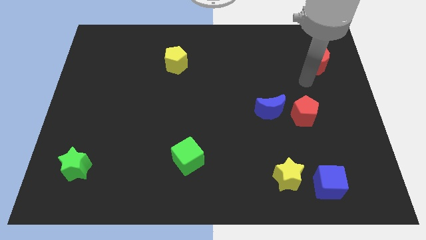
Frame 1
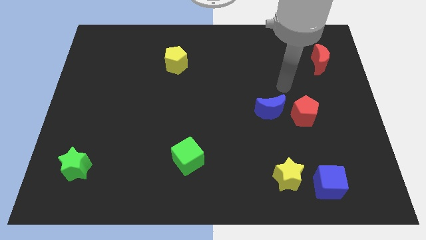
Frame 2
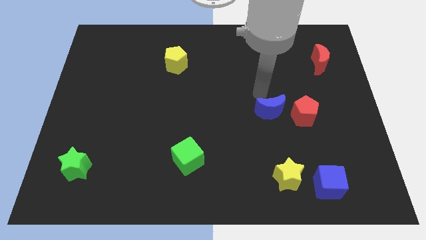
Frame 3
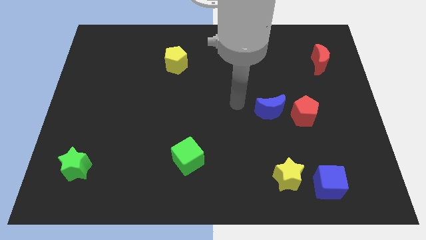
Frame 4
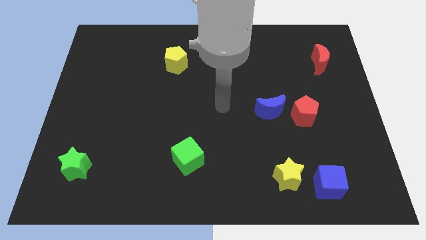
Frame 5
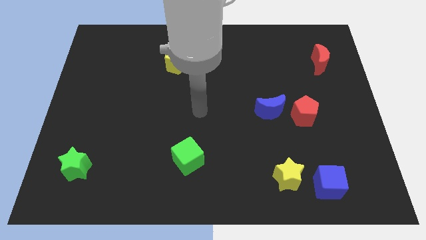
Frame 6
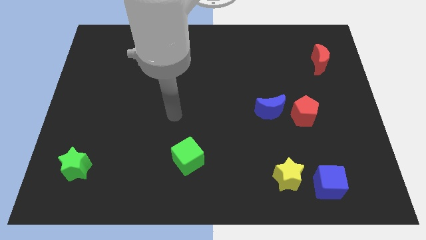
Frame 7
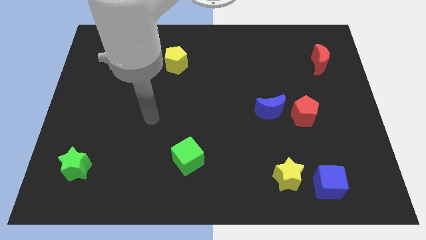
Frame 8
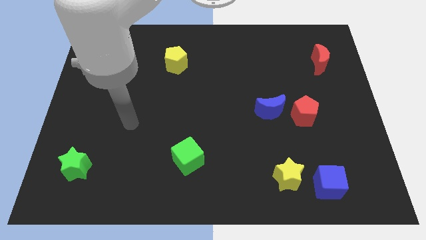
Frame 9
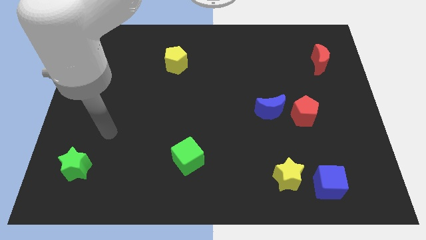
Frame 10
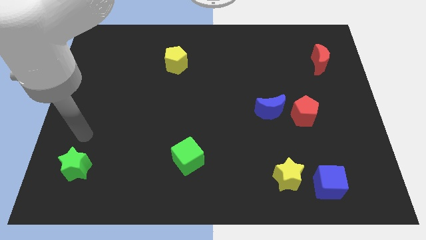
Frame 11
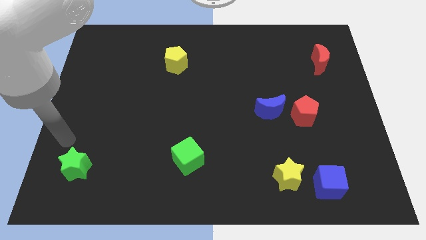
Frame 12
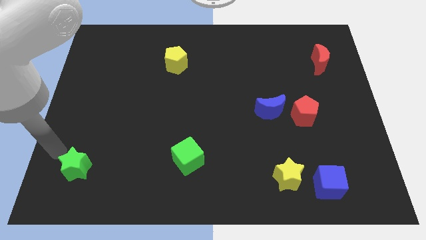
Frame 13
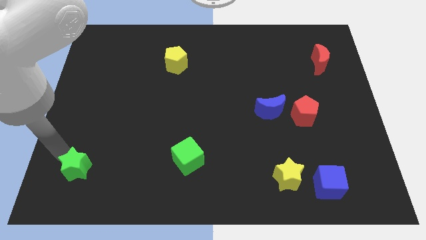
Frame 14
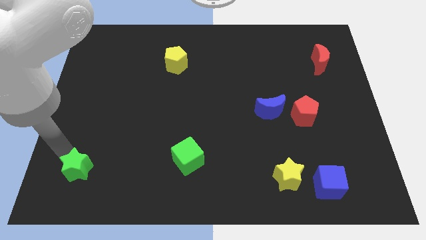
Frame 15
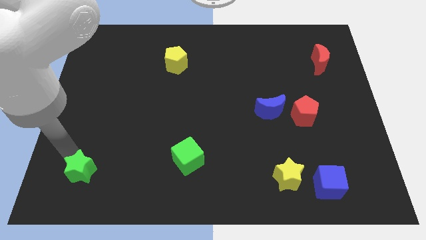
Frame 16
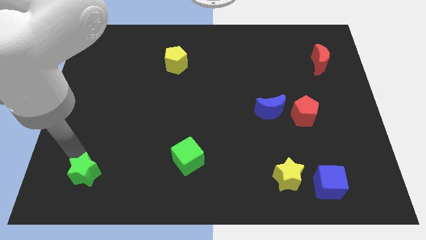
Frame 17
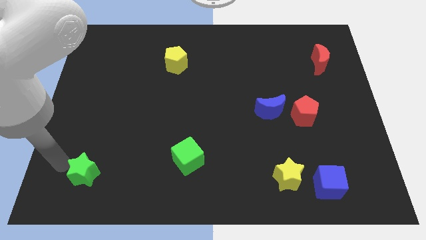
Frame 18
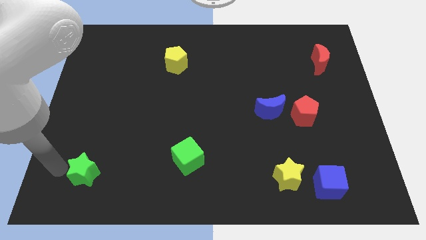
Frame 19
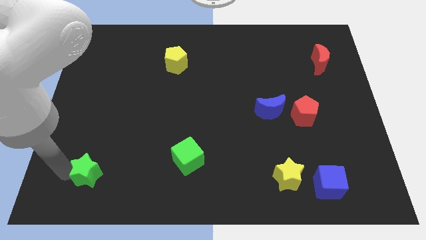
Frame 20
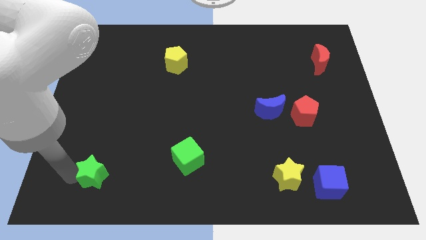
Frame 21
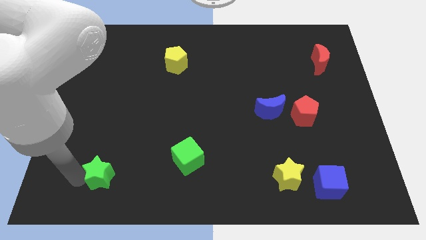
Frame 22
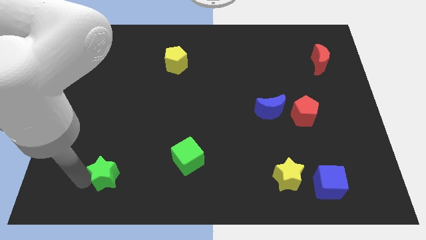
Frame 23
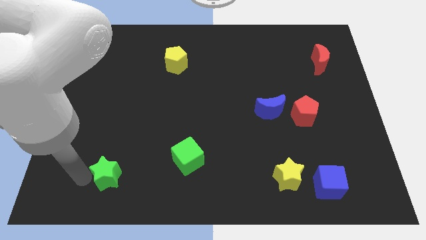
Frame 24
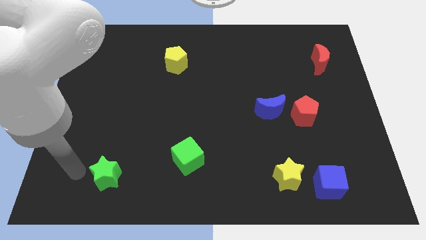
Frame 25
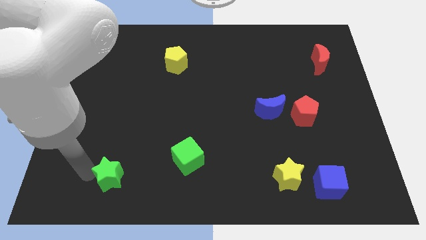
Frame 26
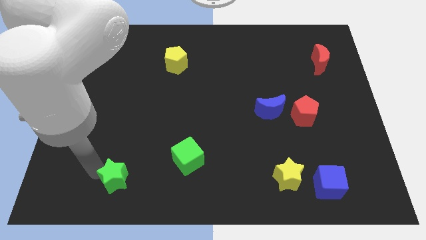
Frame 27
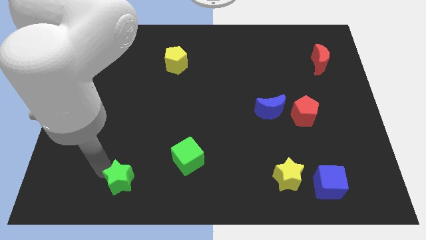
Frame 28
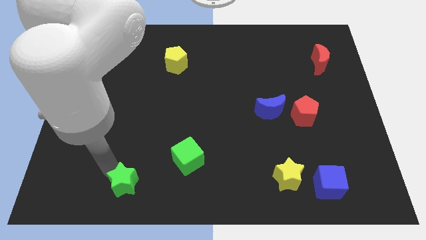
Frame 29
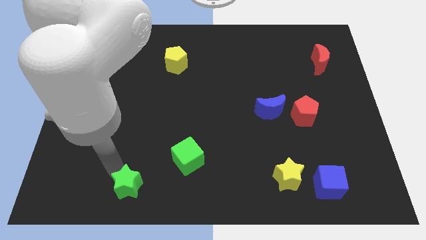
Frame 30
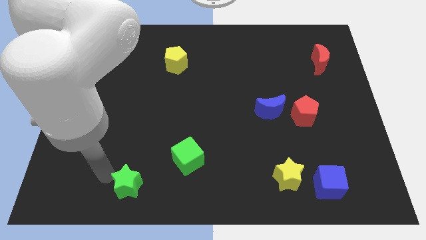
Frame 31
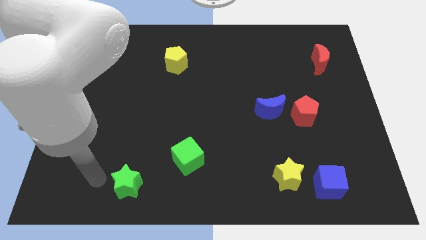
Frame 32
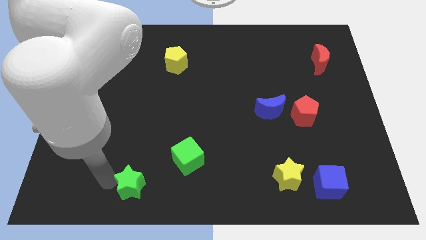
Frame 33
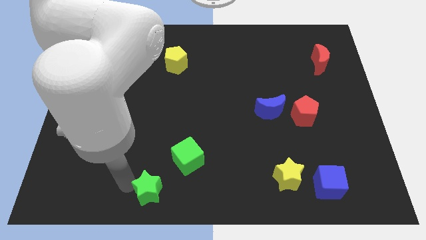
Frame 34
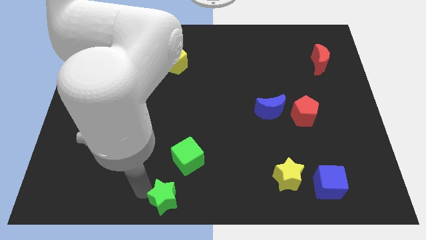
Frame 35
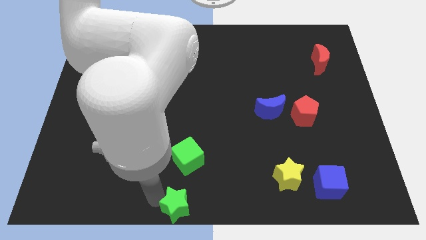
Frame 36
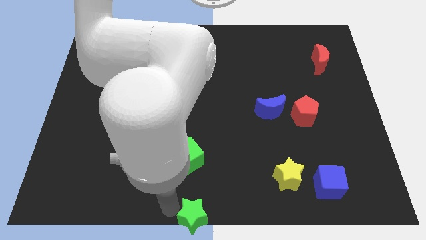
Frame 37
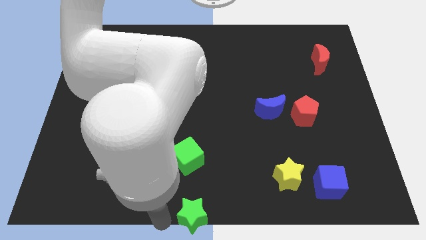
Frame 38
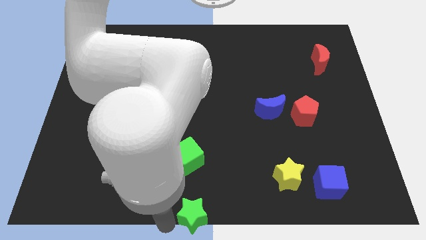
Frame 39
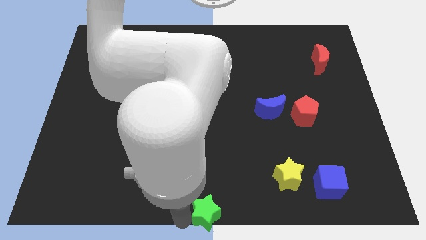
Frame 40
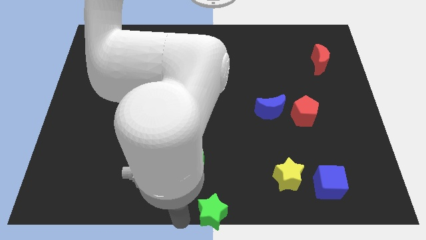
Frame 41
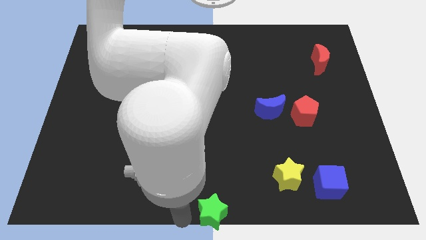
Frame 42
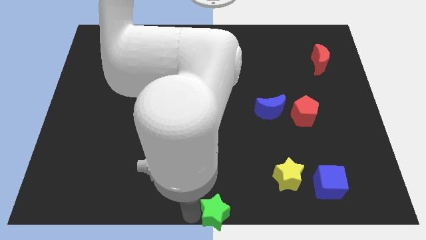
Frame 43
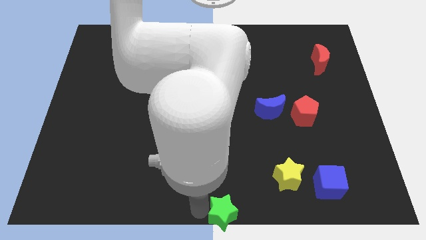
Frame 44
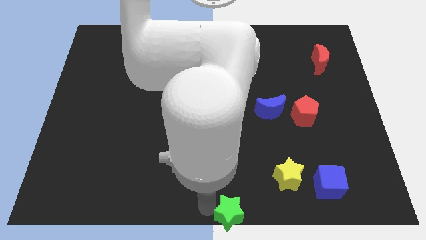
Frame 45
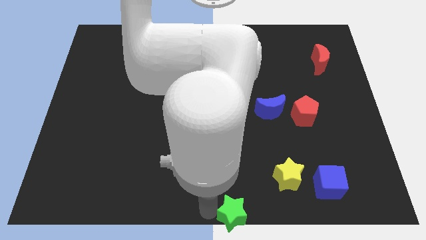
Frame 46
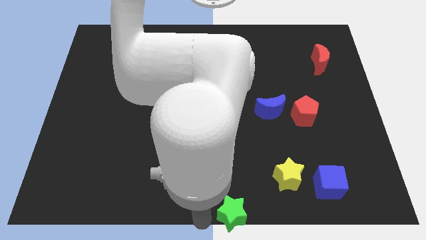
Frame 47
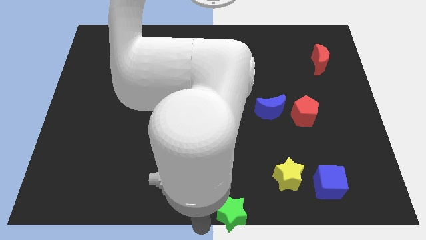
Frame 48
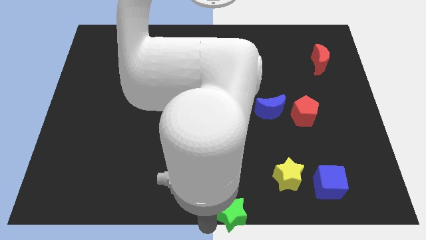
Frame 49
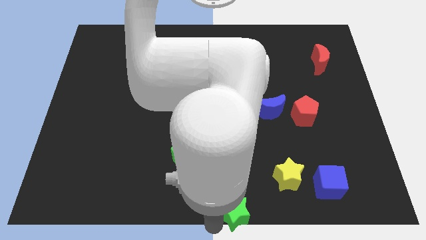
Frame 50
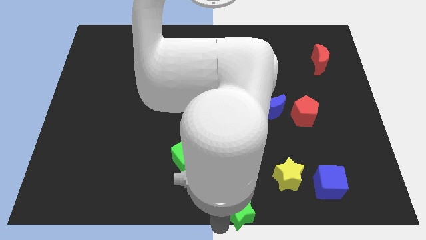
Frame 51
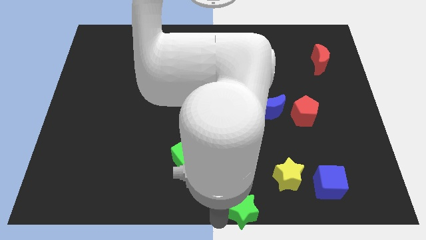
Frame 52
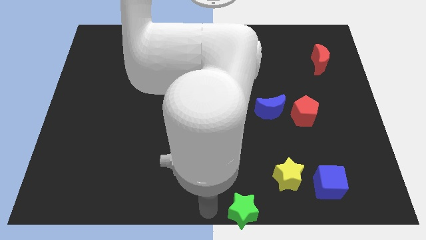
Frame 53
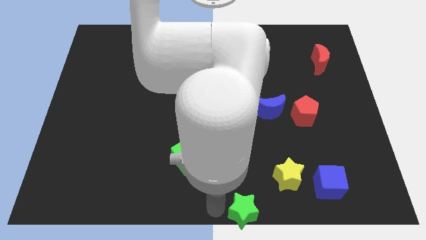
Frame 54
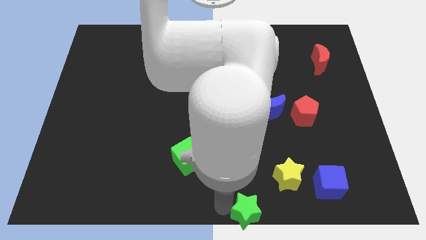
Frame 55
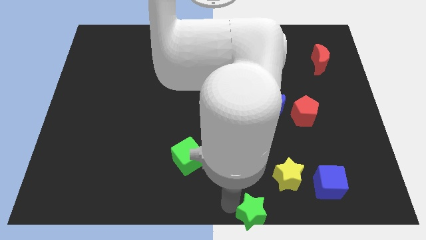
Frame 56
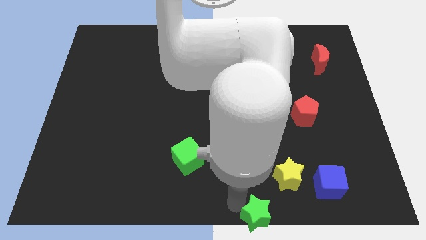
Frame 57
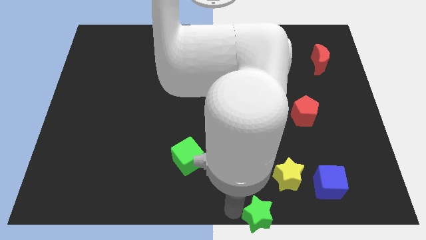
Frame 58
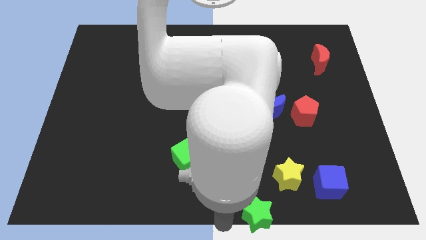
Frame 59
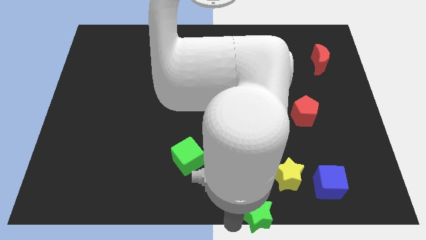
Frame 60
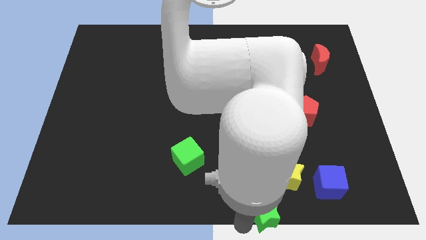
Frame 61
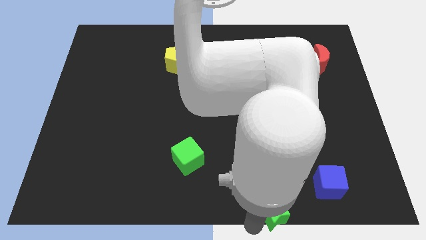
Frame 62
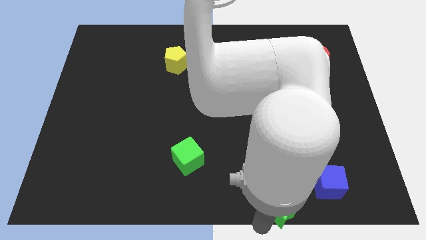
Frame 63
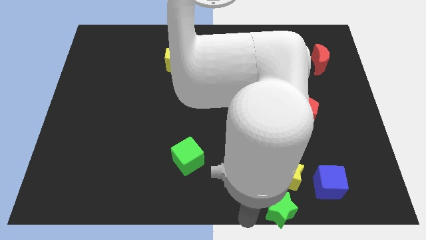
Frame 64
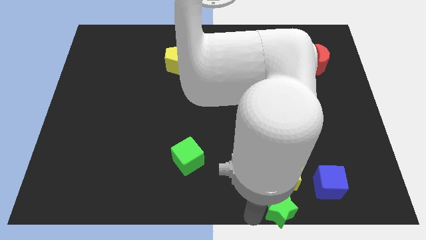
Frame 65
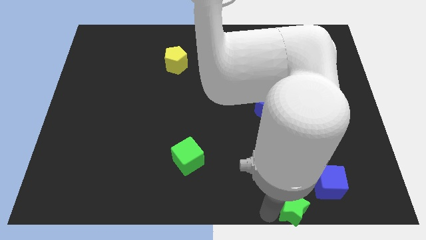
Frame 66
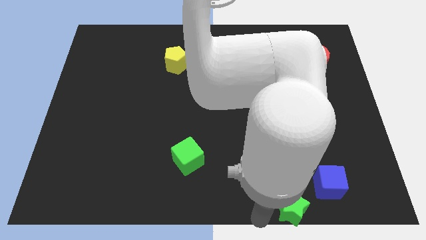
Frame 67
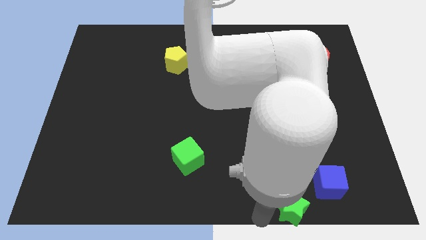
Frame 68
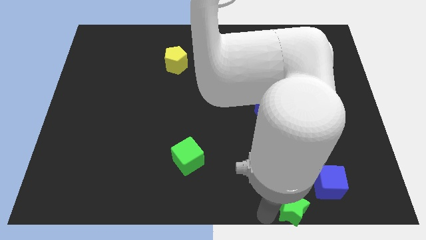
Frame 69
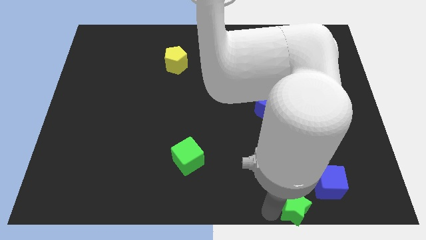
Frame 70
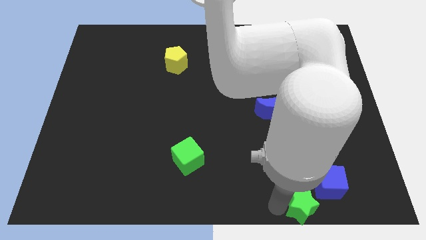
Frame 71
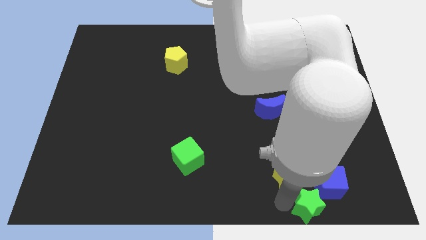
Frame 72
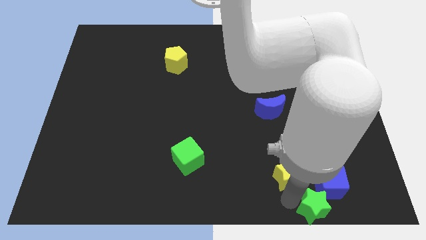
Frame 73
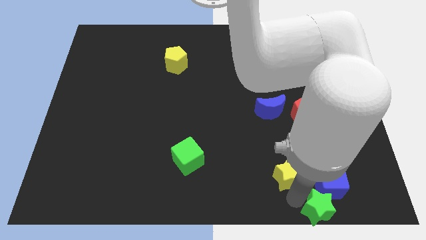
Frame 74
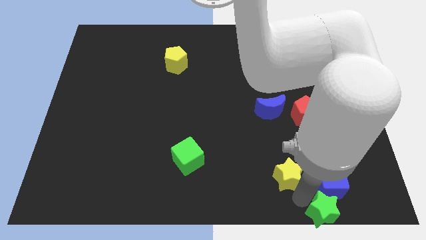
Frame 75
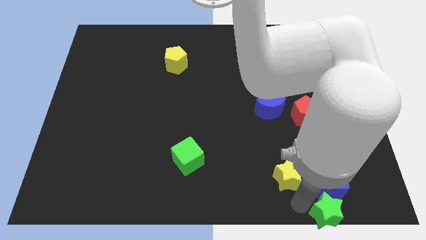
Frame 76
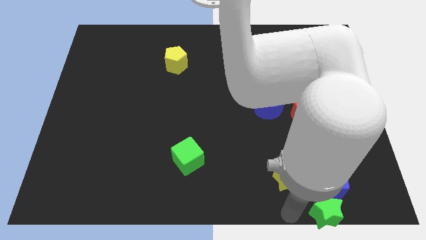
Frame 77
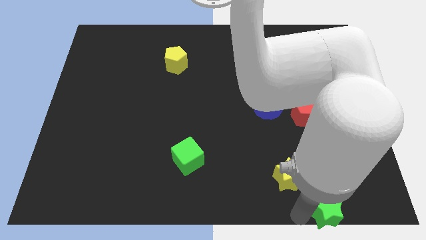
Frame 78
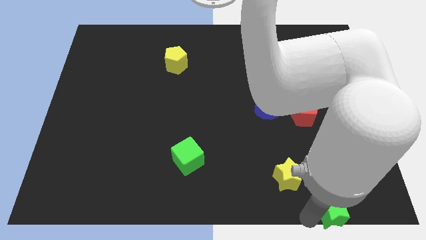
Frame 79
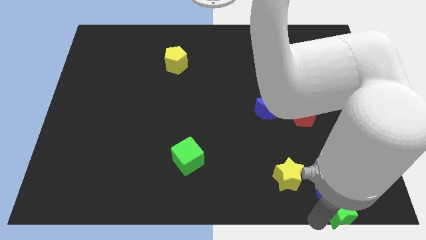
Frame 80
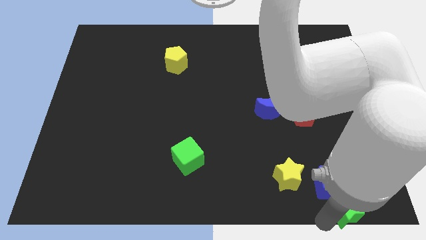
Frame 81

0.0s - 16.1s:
put the green star to the lower right corner
